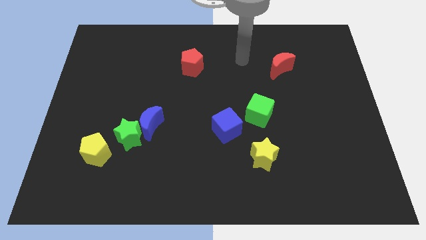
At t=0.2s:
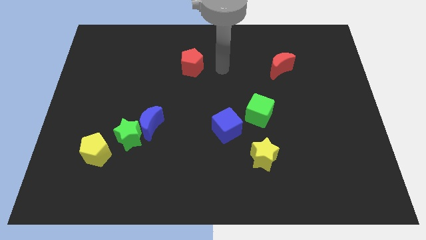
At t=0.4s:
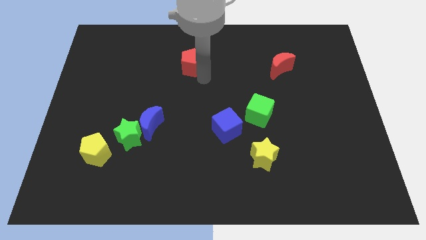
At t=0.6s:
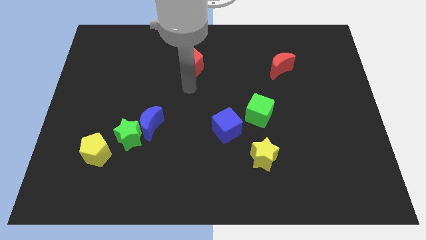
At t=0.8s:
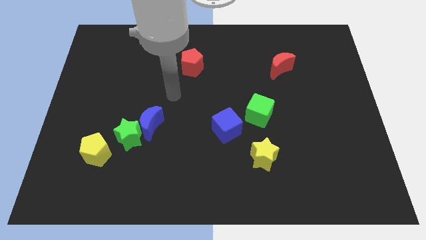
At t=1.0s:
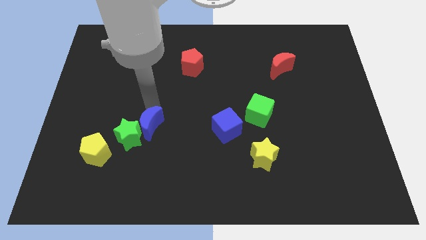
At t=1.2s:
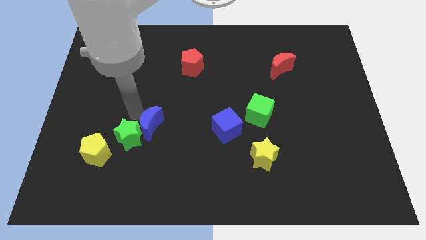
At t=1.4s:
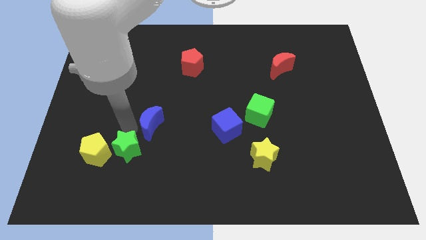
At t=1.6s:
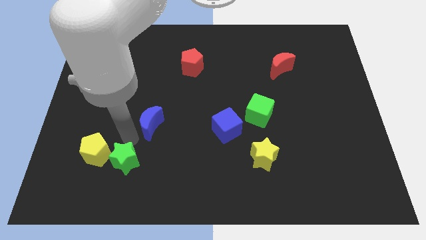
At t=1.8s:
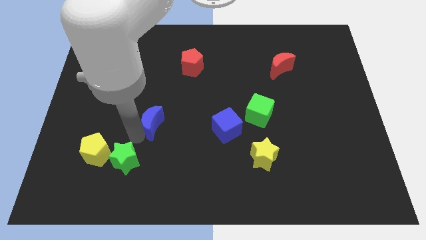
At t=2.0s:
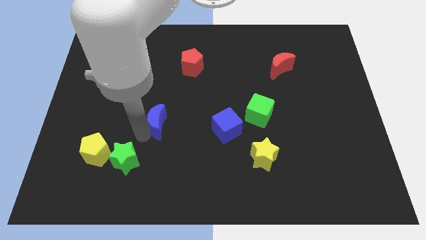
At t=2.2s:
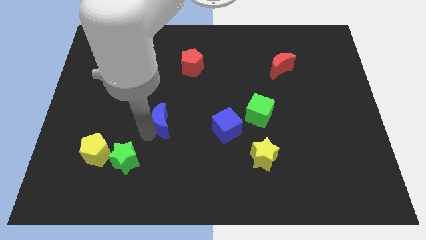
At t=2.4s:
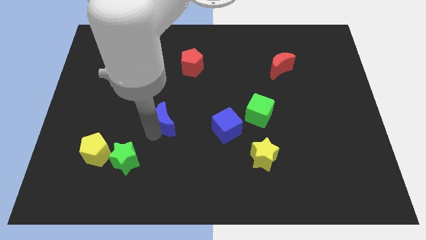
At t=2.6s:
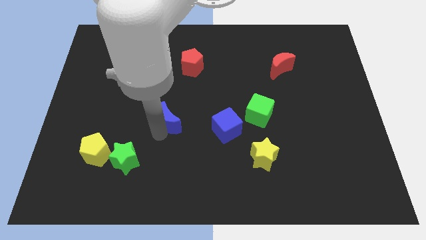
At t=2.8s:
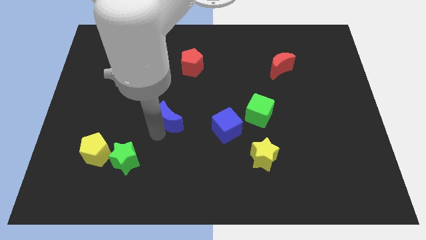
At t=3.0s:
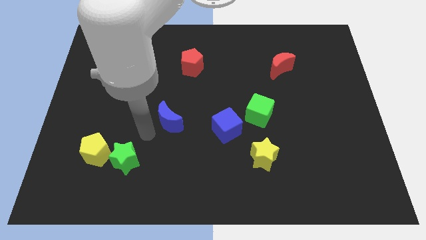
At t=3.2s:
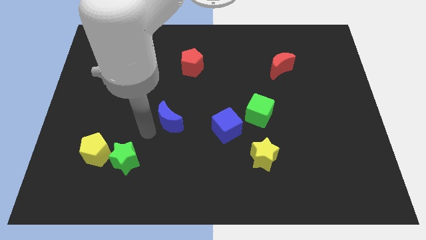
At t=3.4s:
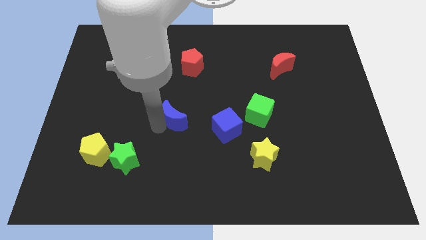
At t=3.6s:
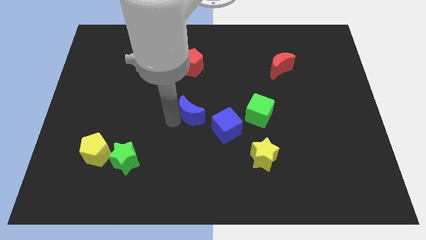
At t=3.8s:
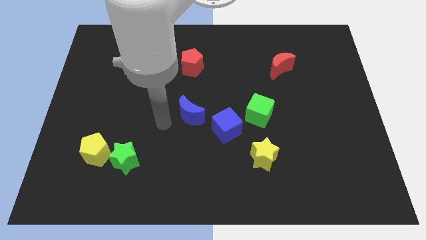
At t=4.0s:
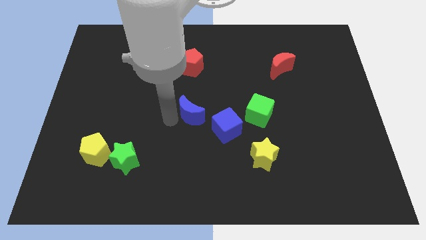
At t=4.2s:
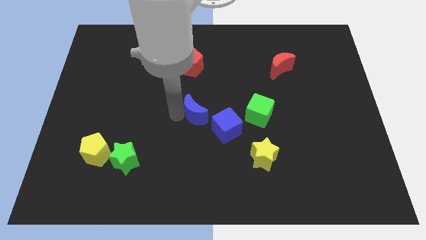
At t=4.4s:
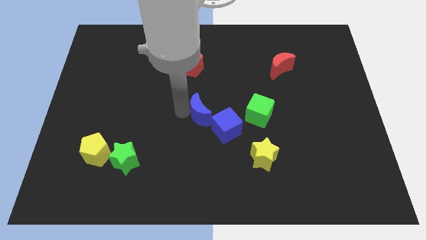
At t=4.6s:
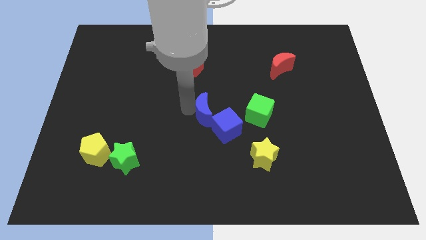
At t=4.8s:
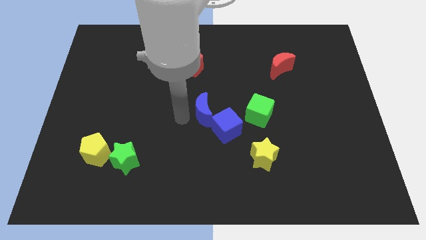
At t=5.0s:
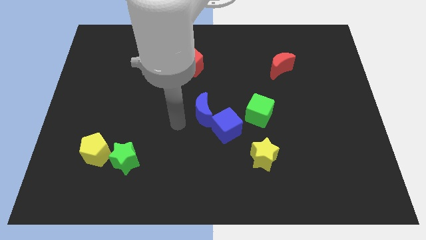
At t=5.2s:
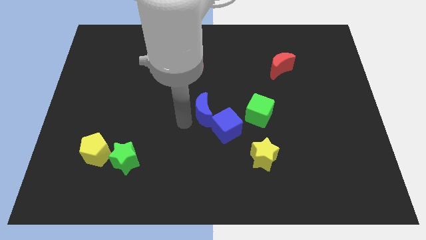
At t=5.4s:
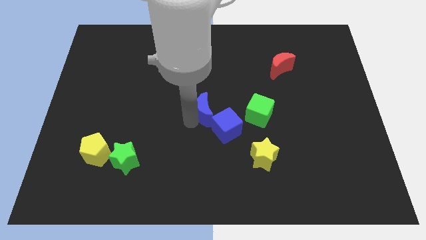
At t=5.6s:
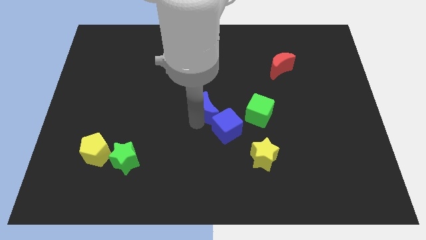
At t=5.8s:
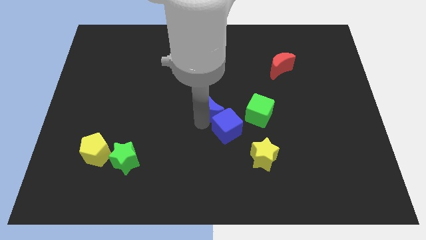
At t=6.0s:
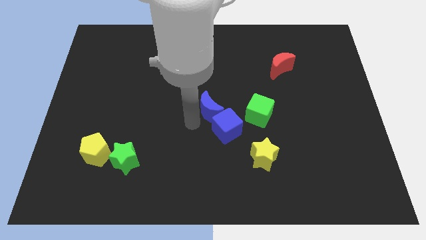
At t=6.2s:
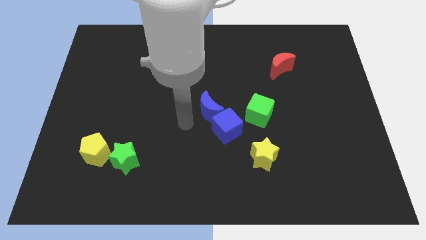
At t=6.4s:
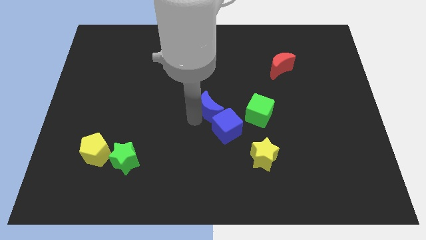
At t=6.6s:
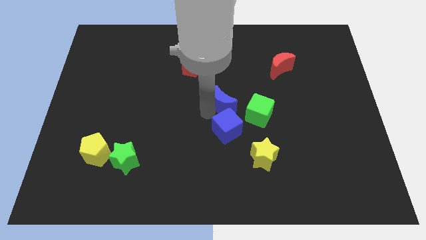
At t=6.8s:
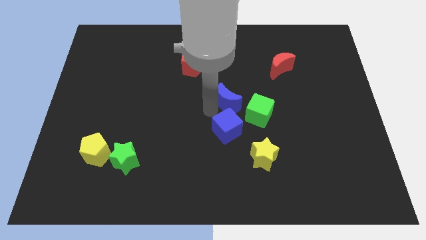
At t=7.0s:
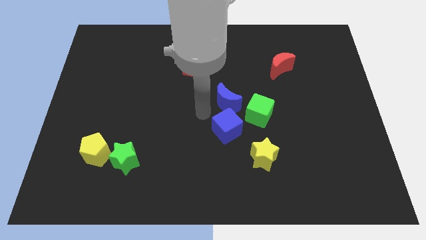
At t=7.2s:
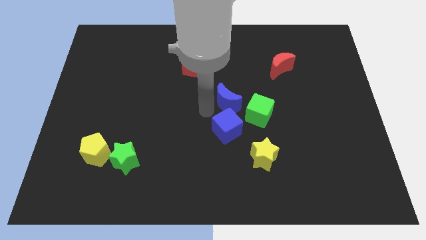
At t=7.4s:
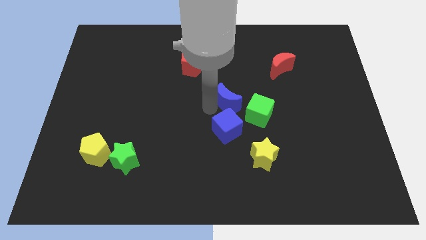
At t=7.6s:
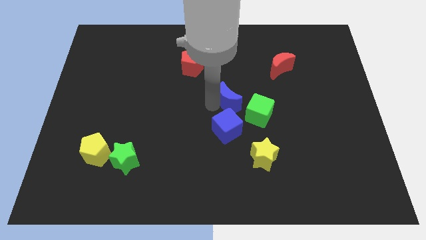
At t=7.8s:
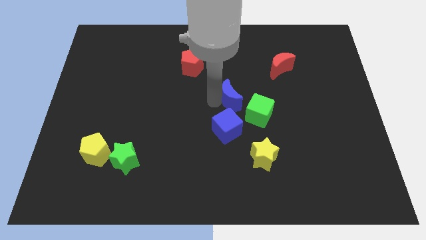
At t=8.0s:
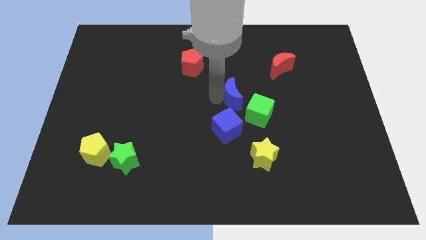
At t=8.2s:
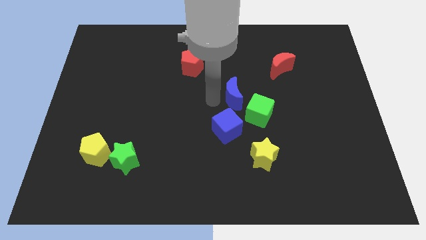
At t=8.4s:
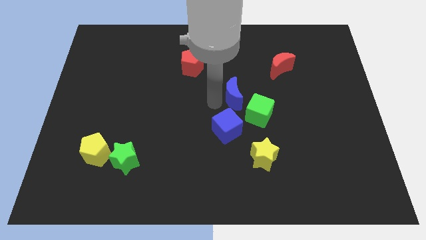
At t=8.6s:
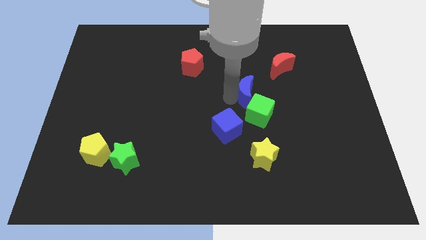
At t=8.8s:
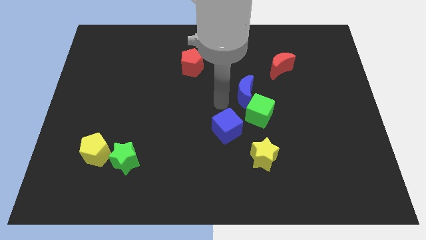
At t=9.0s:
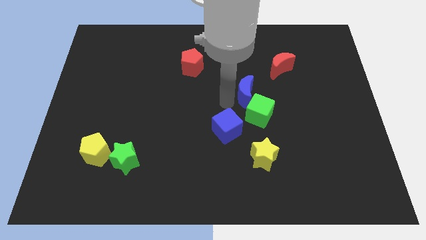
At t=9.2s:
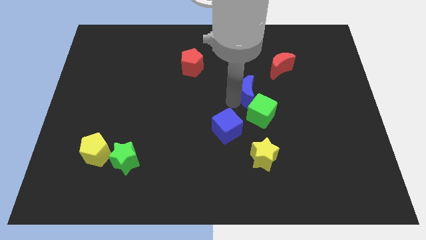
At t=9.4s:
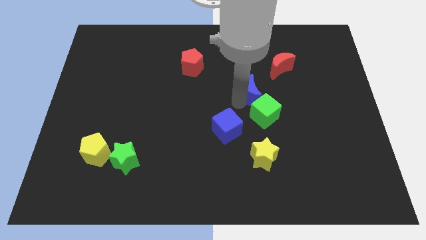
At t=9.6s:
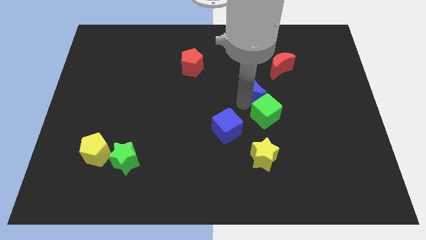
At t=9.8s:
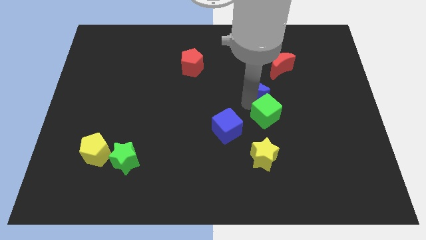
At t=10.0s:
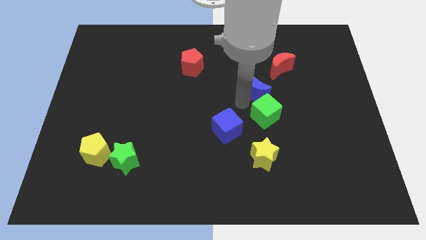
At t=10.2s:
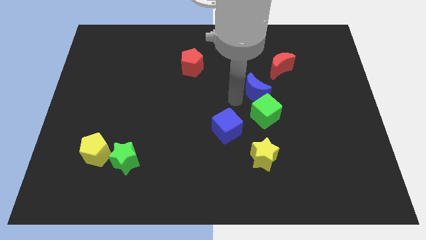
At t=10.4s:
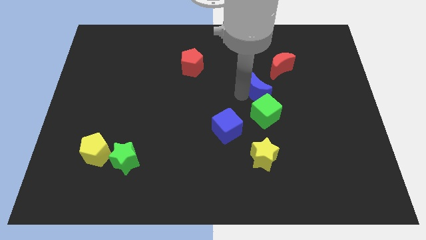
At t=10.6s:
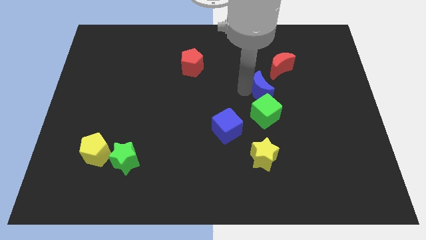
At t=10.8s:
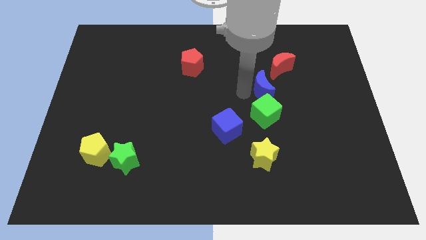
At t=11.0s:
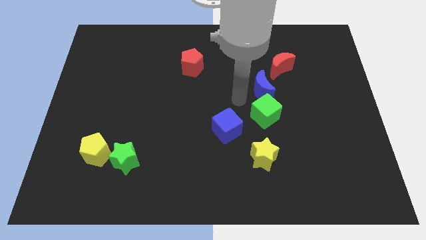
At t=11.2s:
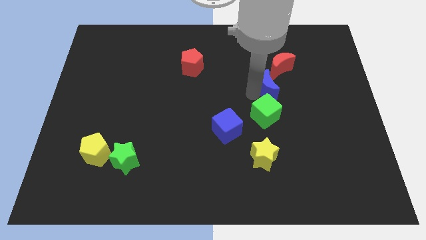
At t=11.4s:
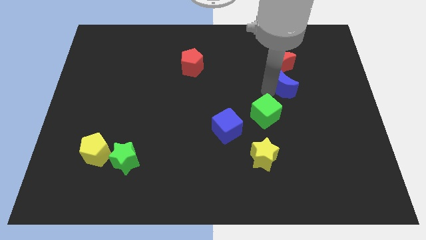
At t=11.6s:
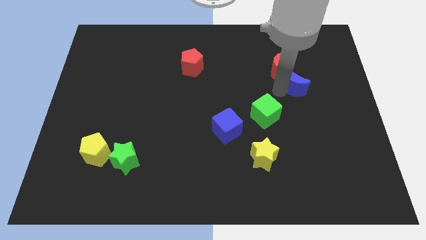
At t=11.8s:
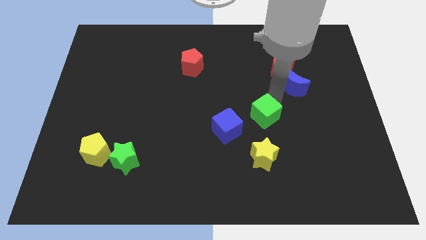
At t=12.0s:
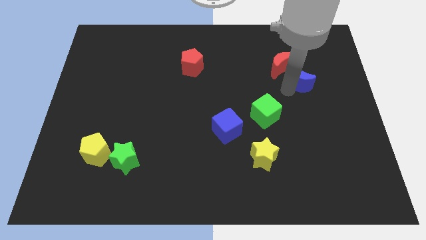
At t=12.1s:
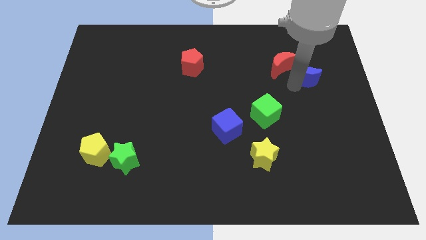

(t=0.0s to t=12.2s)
push the blue moon to the right of the red moon
